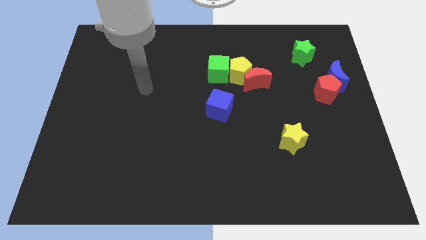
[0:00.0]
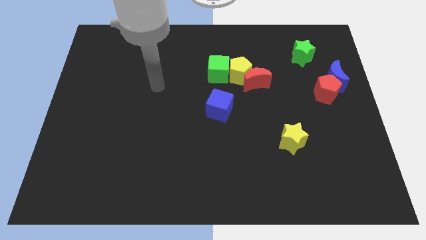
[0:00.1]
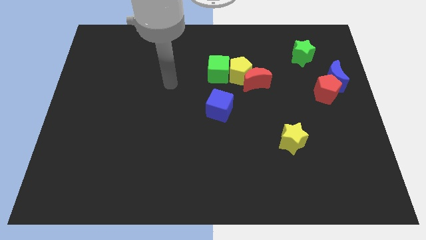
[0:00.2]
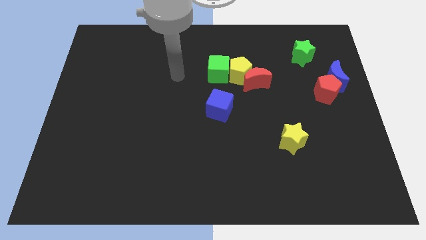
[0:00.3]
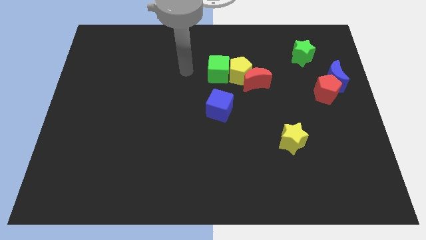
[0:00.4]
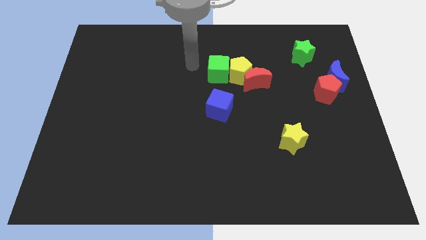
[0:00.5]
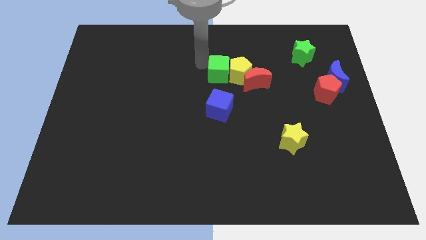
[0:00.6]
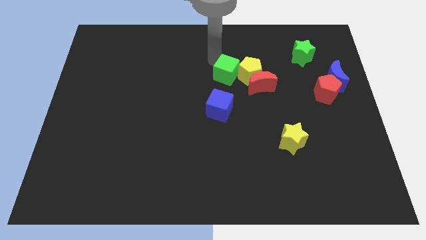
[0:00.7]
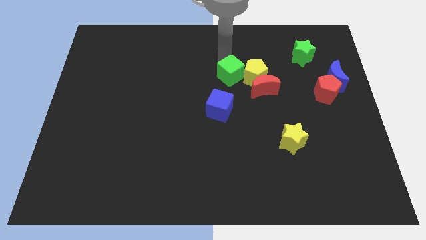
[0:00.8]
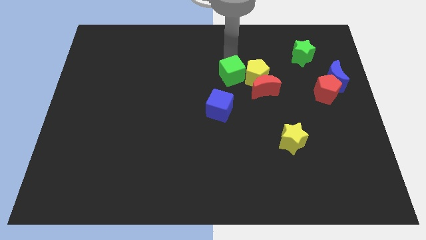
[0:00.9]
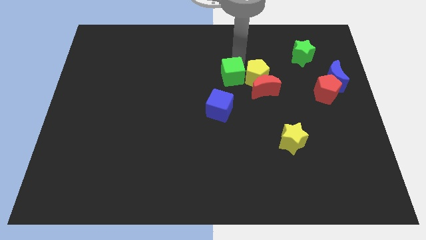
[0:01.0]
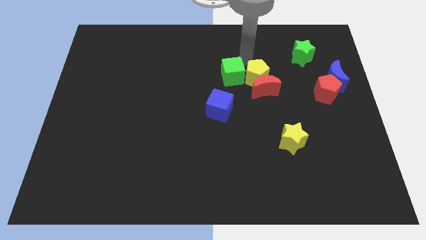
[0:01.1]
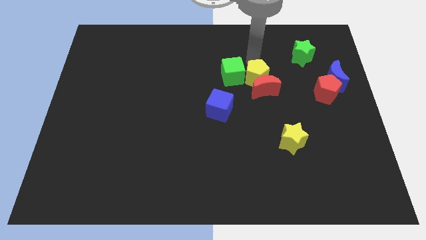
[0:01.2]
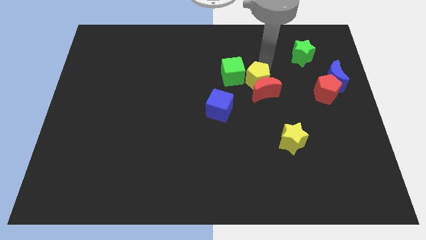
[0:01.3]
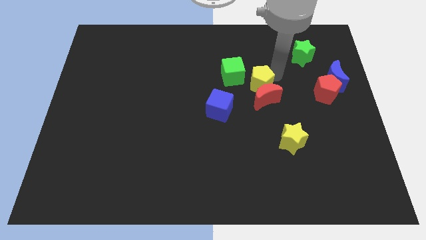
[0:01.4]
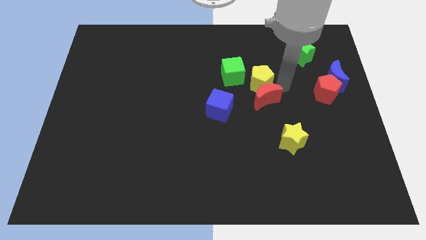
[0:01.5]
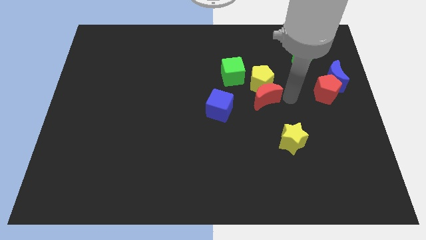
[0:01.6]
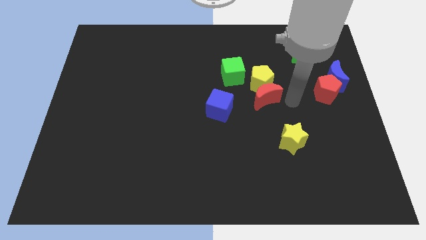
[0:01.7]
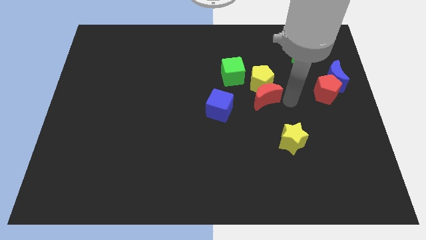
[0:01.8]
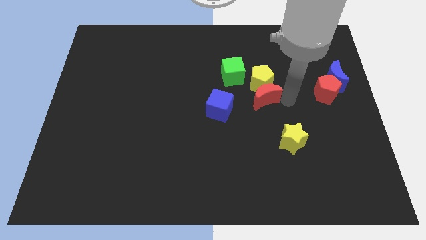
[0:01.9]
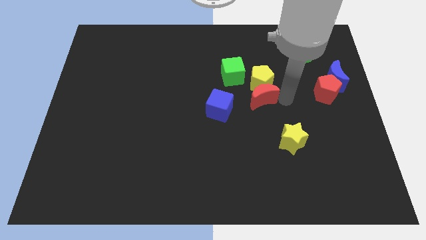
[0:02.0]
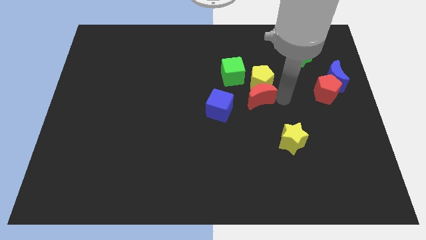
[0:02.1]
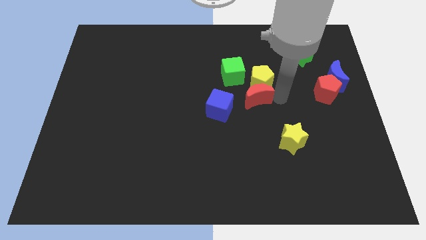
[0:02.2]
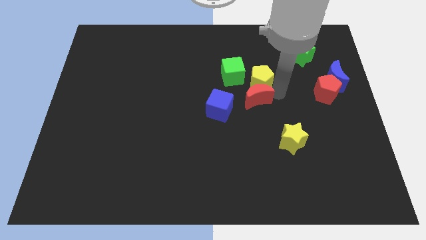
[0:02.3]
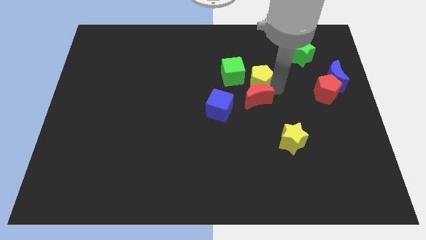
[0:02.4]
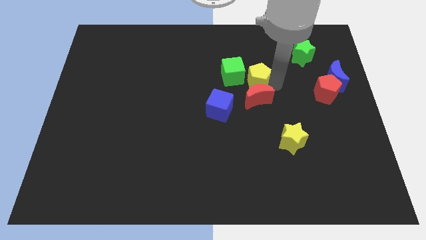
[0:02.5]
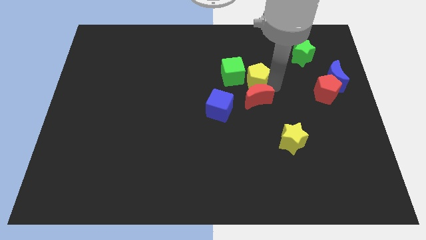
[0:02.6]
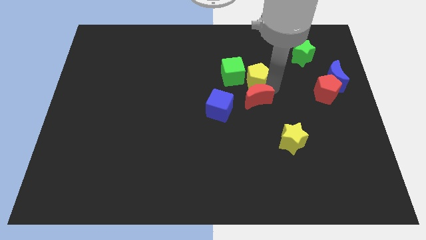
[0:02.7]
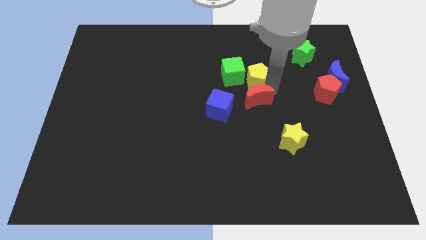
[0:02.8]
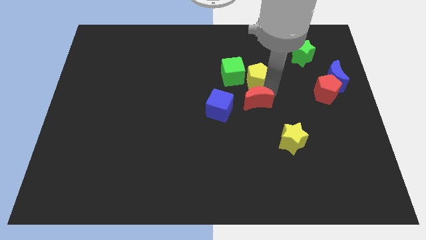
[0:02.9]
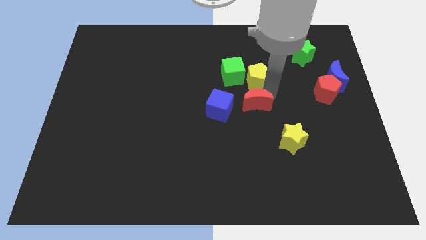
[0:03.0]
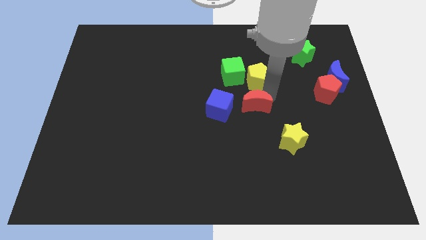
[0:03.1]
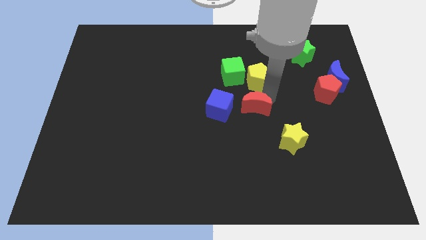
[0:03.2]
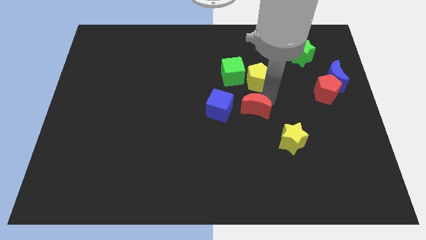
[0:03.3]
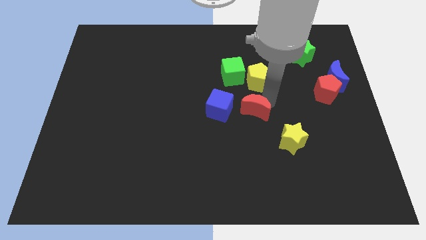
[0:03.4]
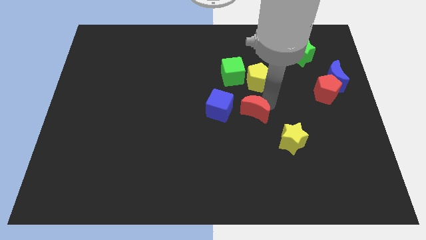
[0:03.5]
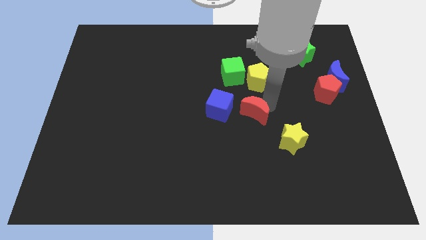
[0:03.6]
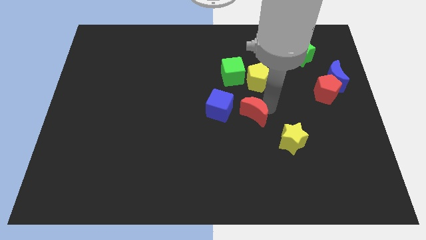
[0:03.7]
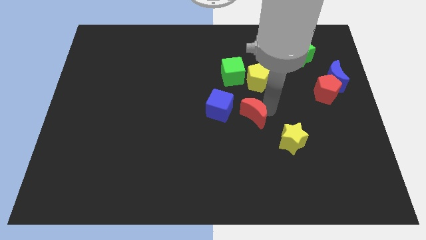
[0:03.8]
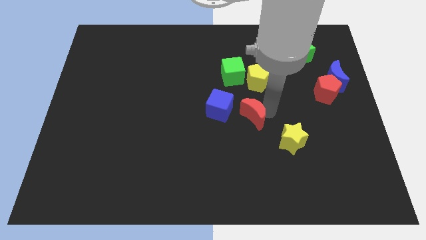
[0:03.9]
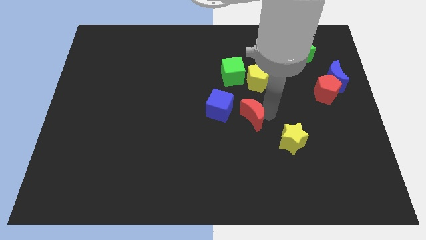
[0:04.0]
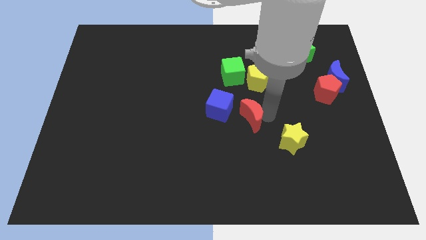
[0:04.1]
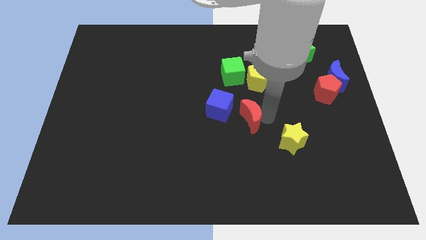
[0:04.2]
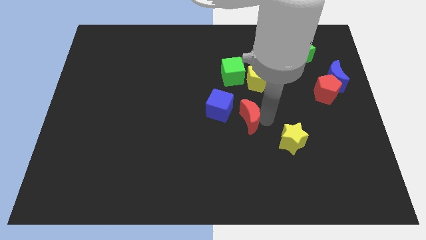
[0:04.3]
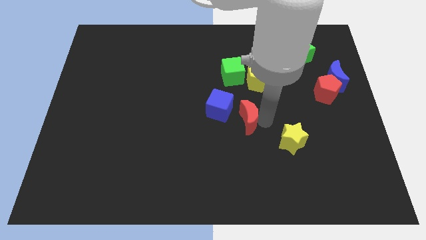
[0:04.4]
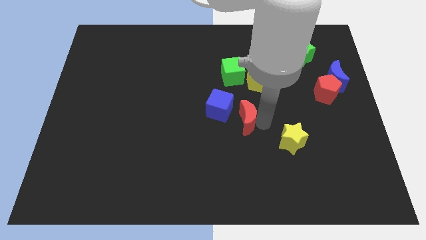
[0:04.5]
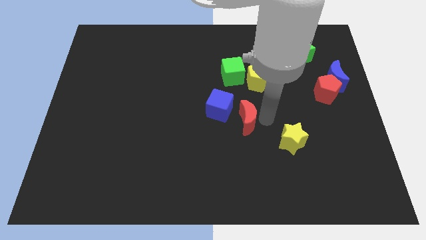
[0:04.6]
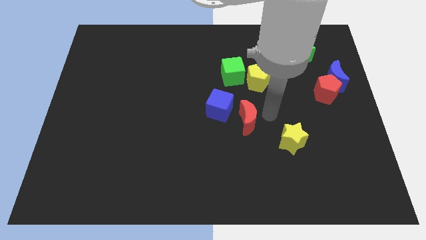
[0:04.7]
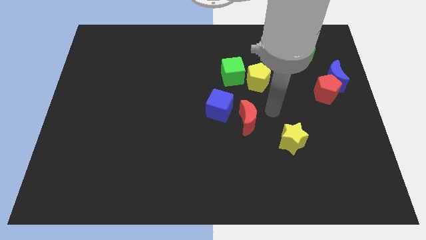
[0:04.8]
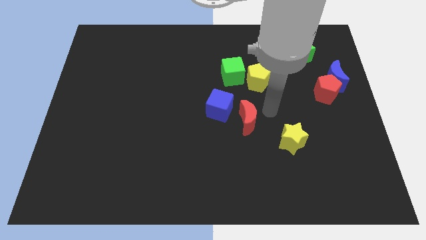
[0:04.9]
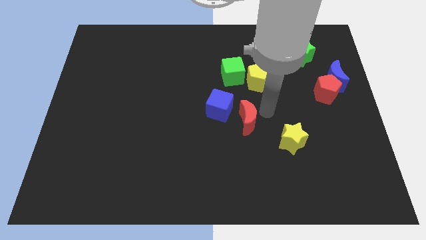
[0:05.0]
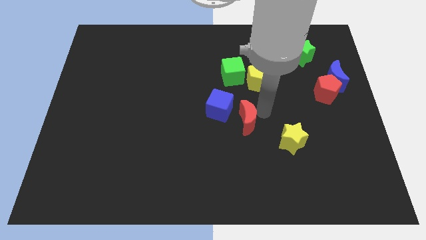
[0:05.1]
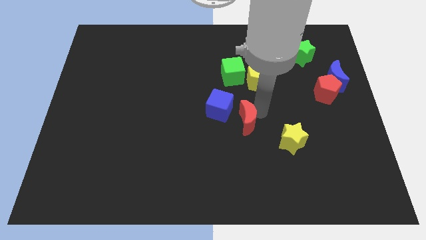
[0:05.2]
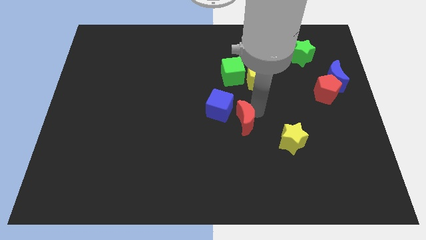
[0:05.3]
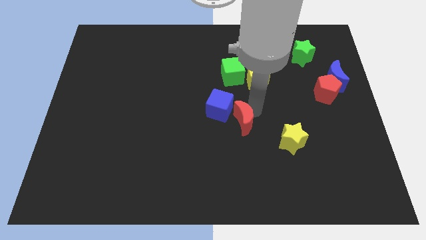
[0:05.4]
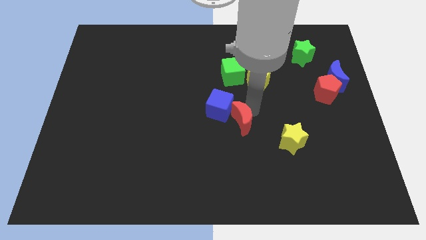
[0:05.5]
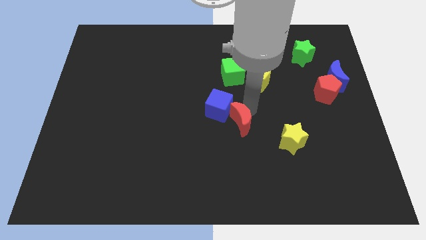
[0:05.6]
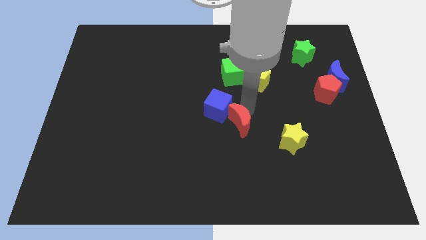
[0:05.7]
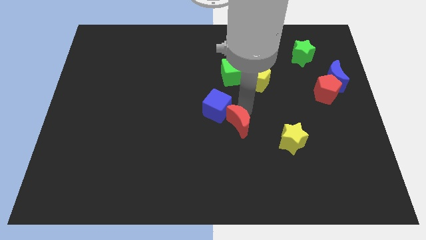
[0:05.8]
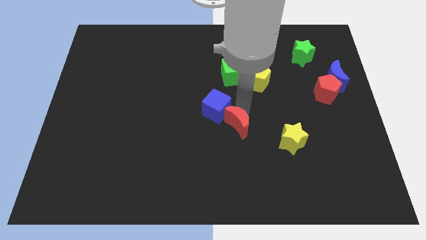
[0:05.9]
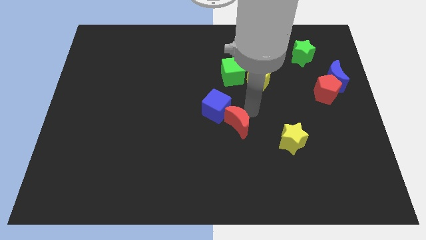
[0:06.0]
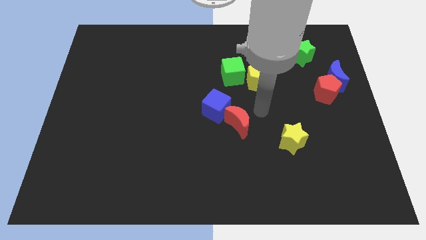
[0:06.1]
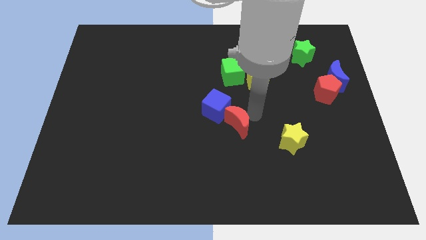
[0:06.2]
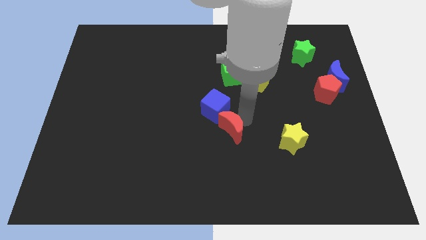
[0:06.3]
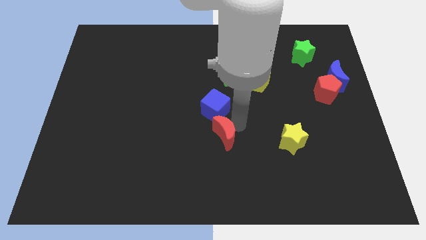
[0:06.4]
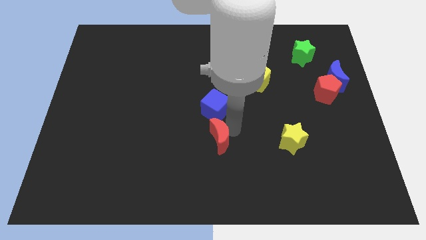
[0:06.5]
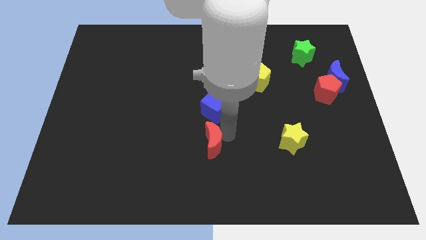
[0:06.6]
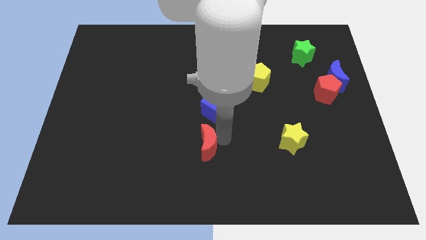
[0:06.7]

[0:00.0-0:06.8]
push the red moon downwards and then to the left

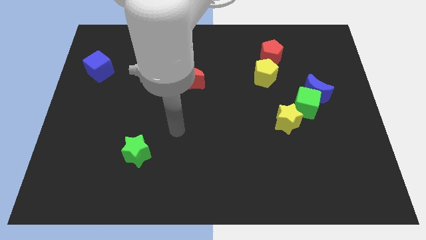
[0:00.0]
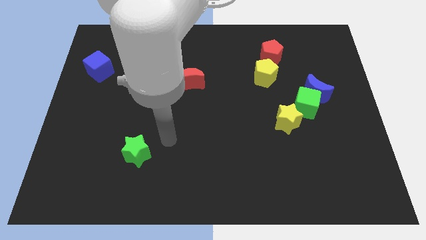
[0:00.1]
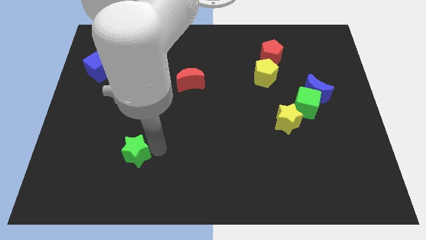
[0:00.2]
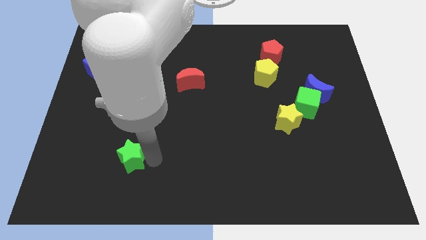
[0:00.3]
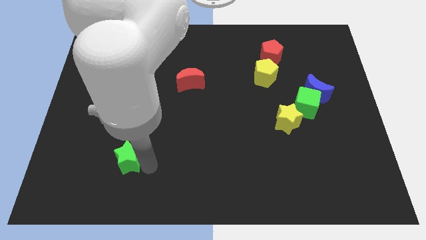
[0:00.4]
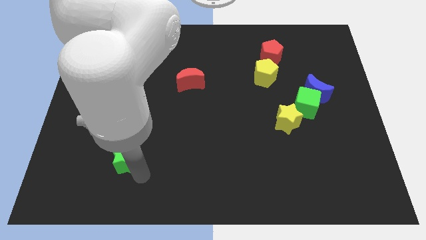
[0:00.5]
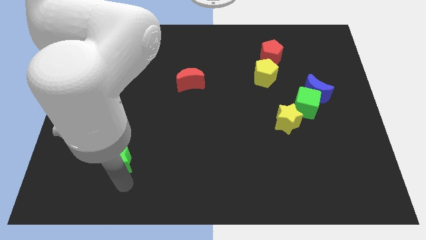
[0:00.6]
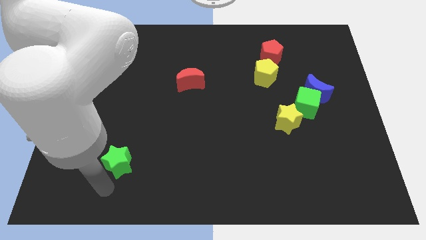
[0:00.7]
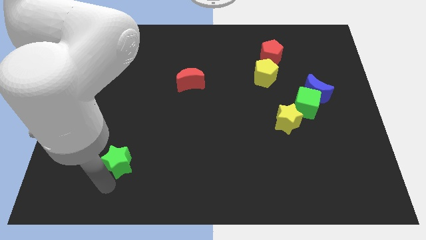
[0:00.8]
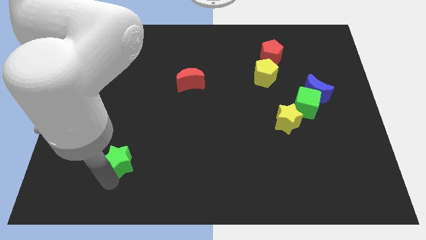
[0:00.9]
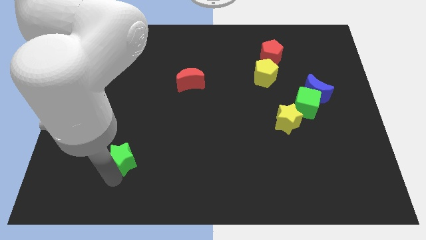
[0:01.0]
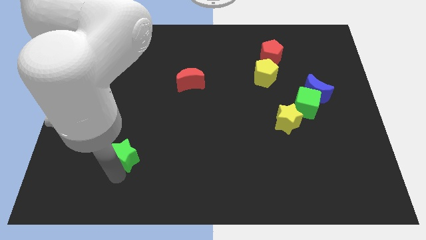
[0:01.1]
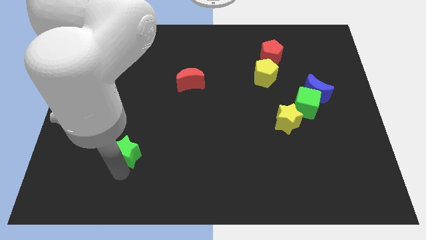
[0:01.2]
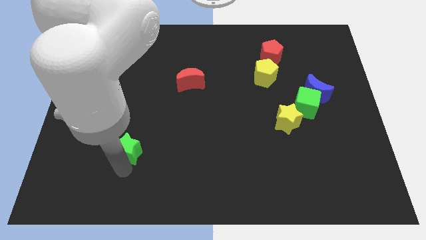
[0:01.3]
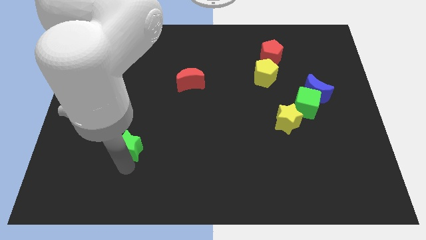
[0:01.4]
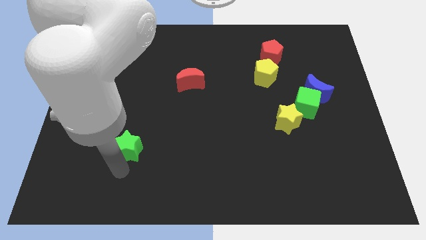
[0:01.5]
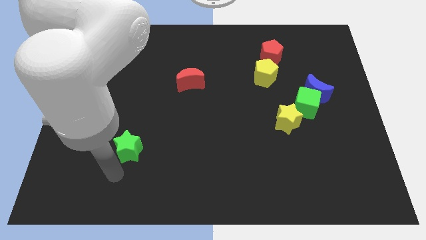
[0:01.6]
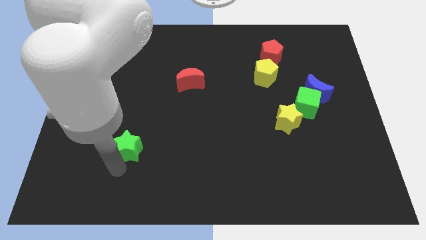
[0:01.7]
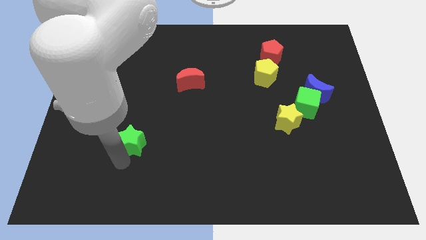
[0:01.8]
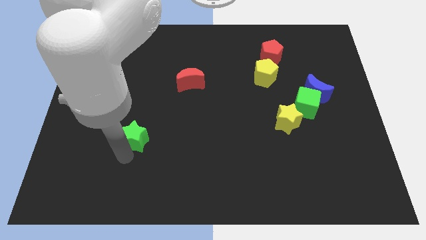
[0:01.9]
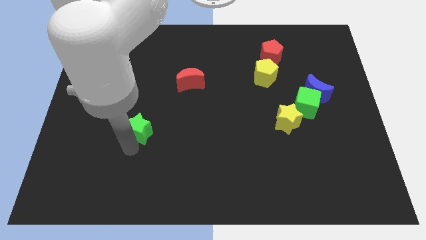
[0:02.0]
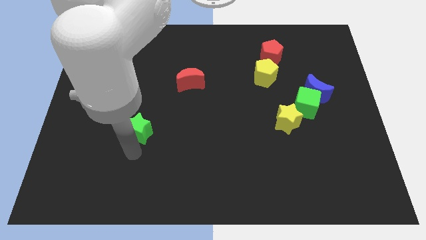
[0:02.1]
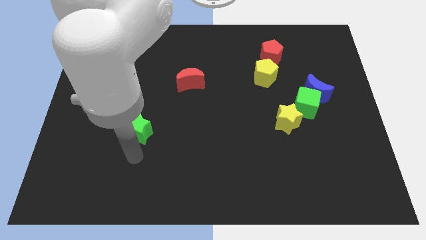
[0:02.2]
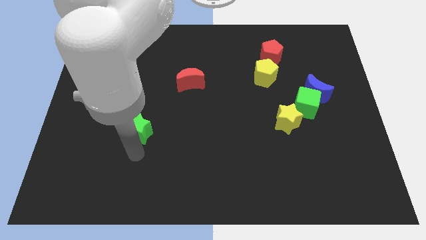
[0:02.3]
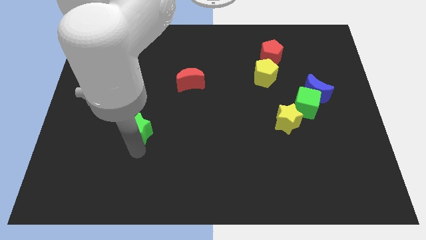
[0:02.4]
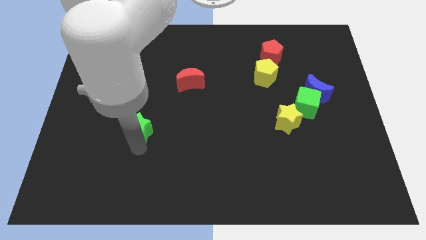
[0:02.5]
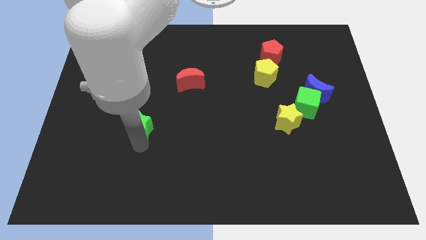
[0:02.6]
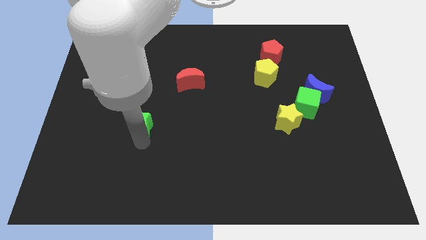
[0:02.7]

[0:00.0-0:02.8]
slightly slide the green star up
